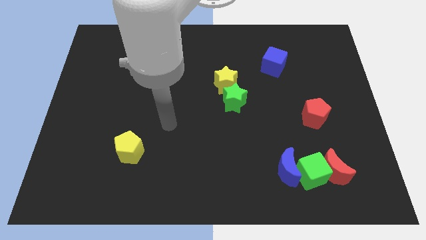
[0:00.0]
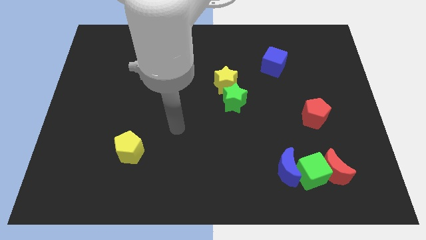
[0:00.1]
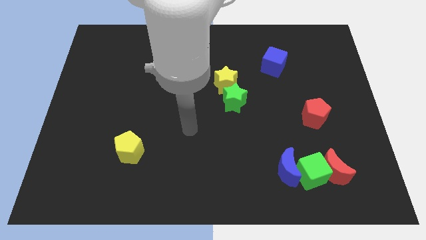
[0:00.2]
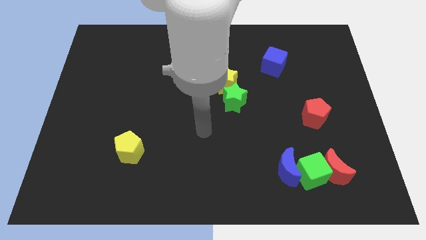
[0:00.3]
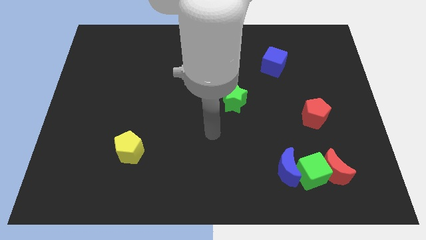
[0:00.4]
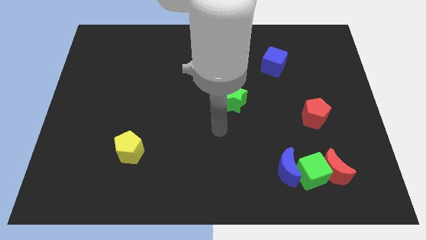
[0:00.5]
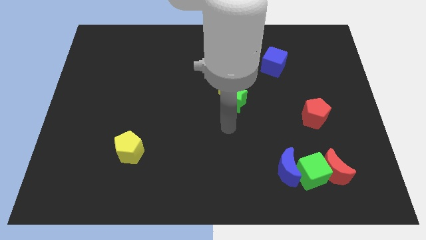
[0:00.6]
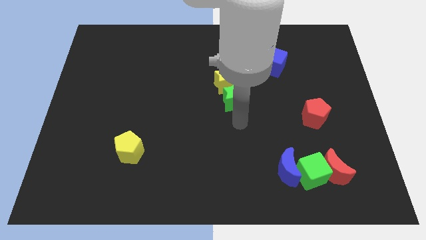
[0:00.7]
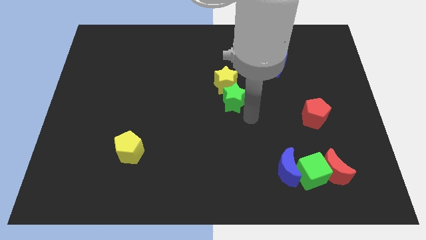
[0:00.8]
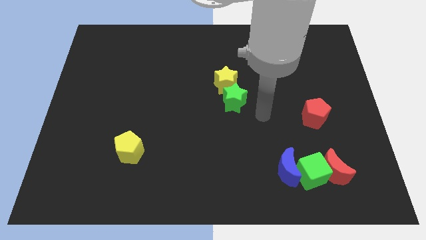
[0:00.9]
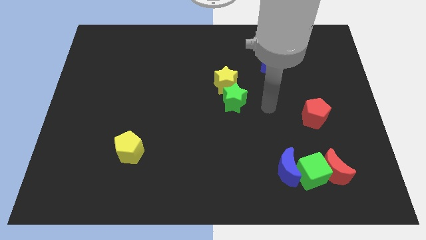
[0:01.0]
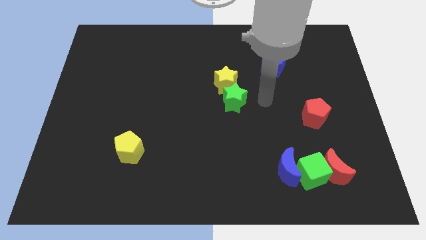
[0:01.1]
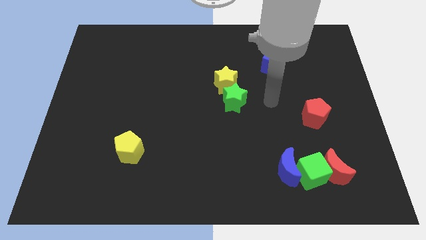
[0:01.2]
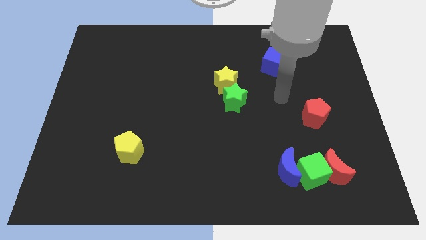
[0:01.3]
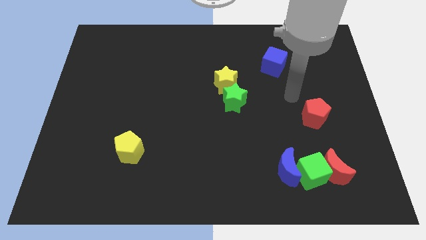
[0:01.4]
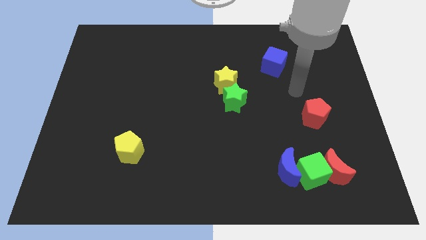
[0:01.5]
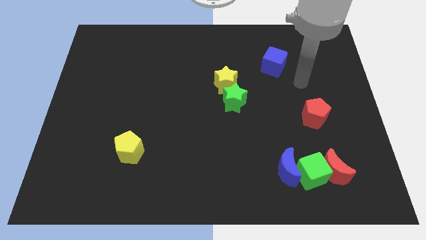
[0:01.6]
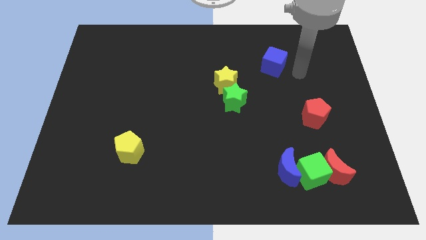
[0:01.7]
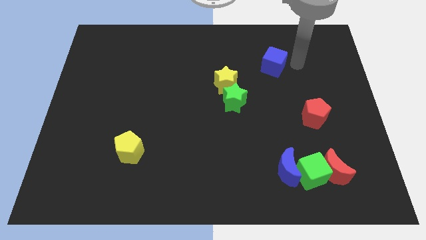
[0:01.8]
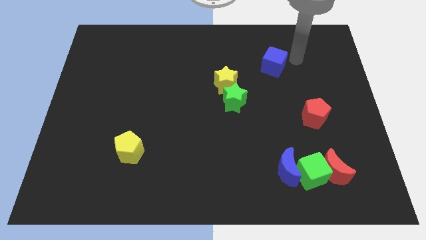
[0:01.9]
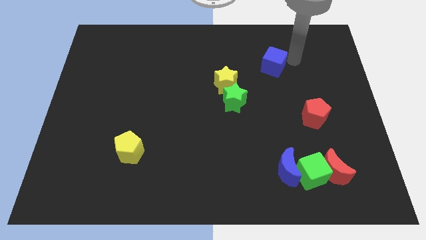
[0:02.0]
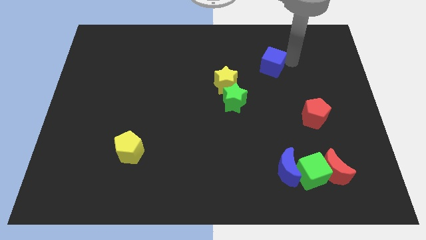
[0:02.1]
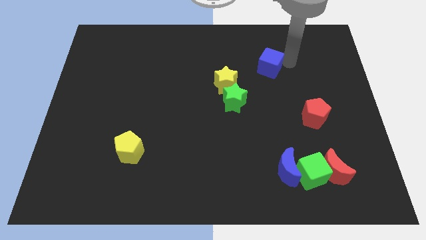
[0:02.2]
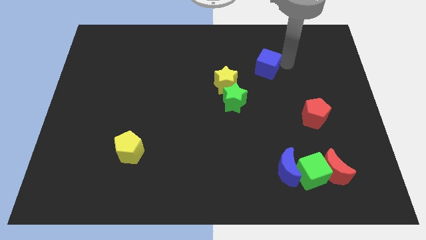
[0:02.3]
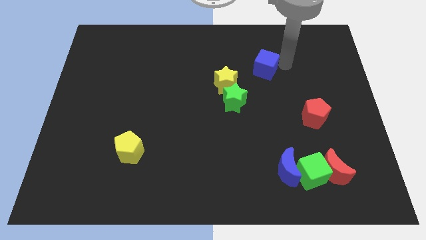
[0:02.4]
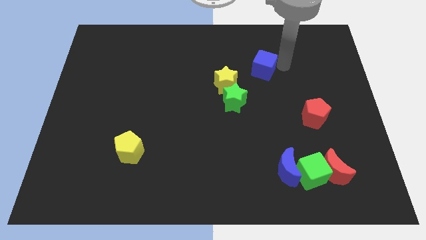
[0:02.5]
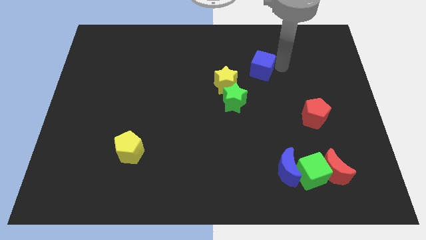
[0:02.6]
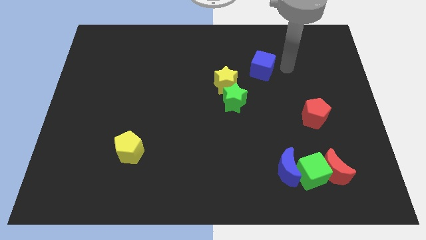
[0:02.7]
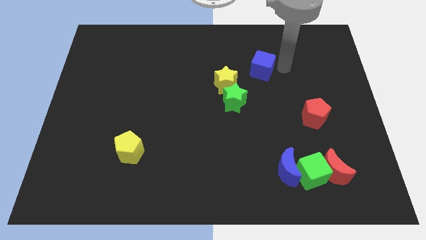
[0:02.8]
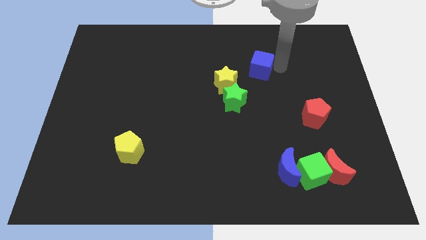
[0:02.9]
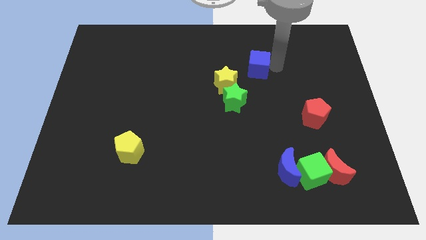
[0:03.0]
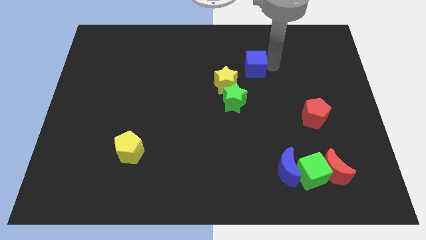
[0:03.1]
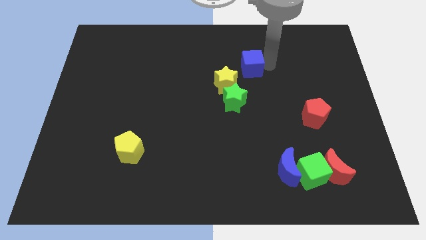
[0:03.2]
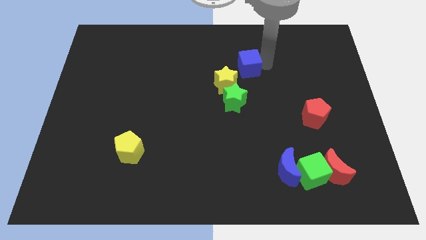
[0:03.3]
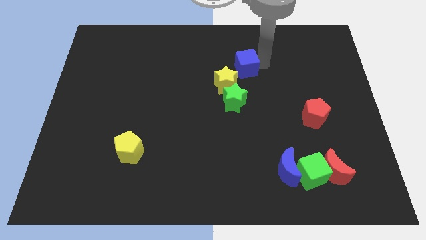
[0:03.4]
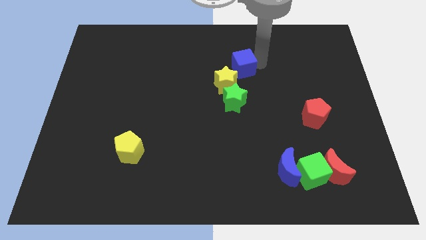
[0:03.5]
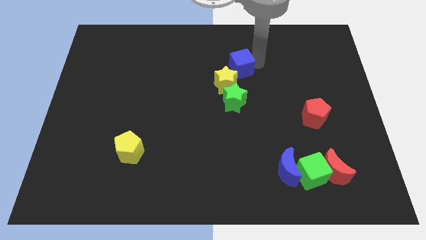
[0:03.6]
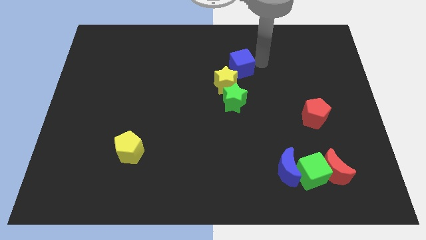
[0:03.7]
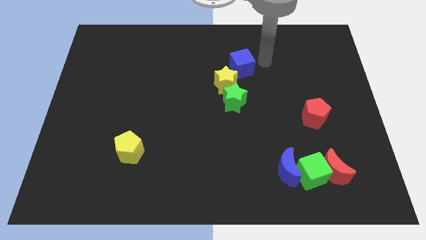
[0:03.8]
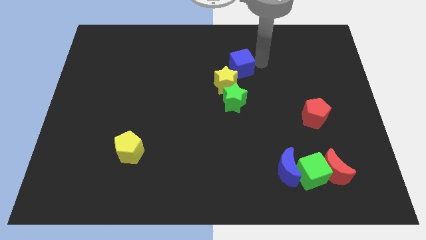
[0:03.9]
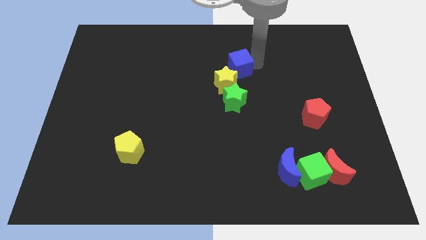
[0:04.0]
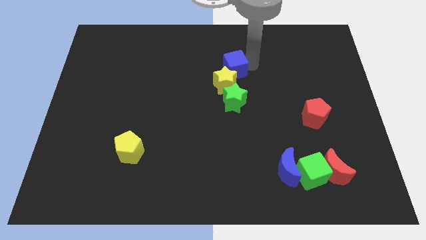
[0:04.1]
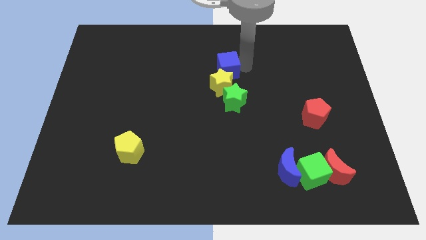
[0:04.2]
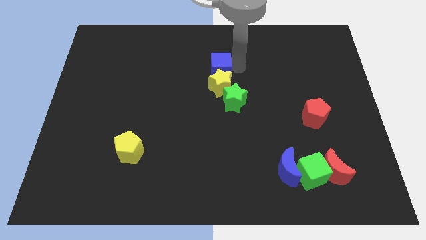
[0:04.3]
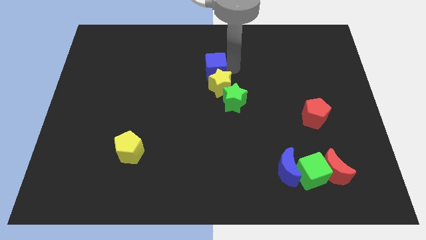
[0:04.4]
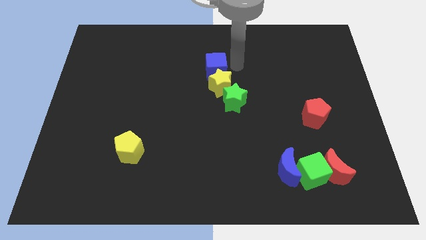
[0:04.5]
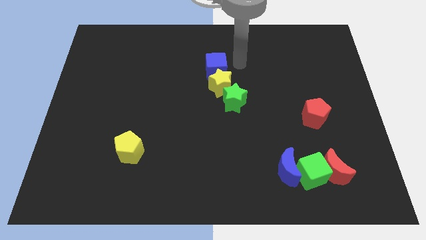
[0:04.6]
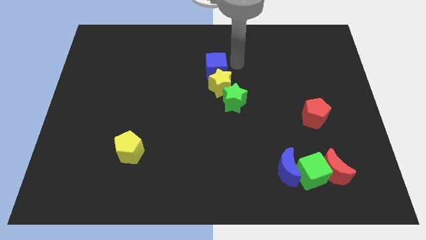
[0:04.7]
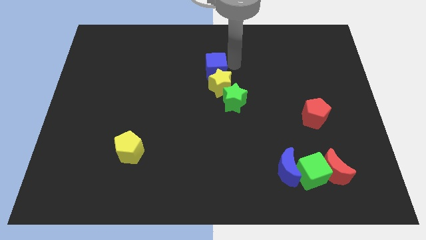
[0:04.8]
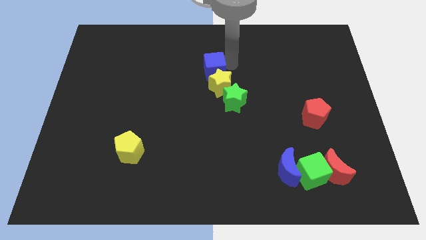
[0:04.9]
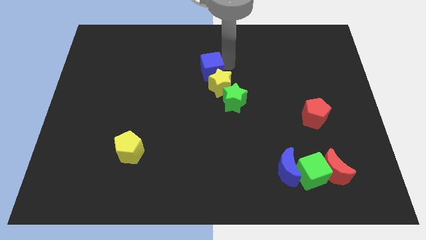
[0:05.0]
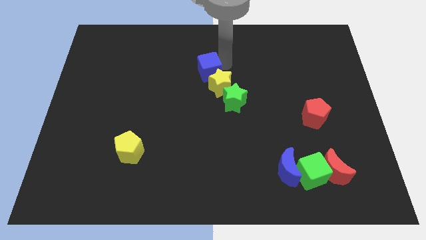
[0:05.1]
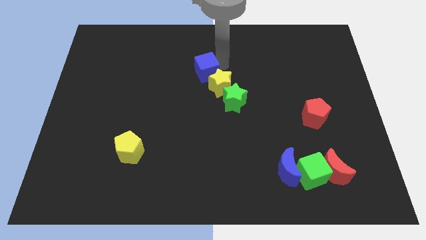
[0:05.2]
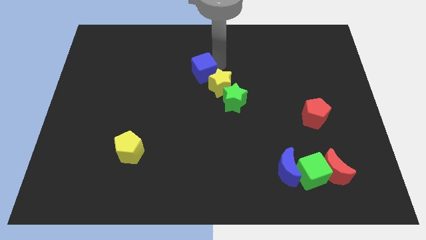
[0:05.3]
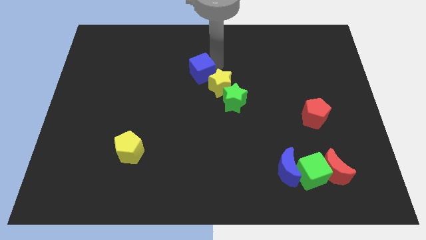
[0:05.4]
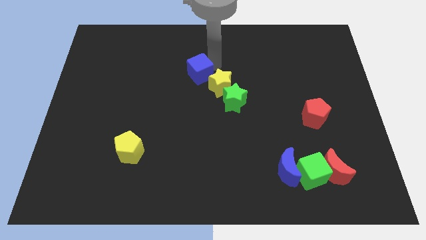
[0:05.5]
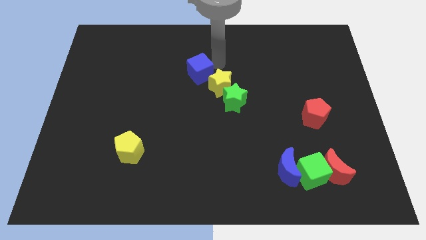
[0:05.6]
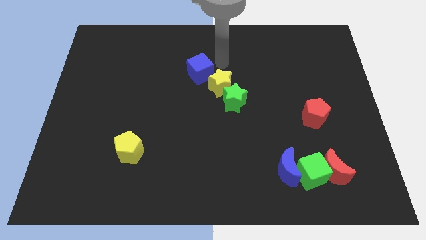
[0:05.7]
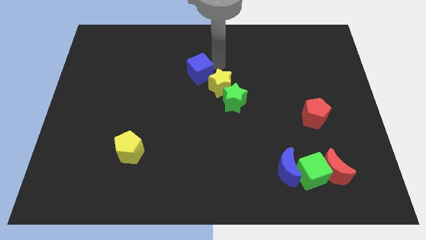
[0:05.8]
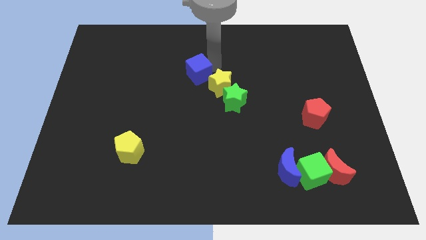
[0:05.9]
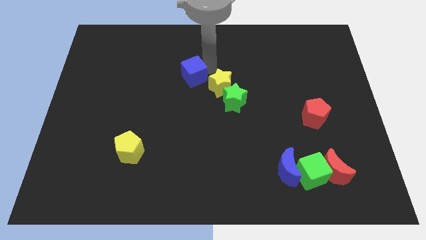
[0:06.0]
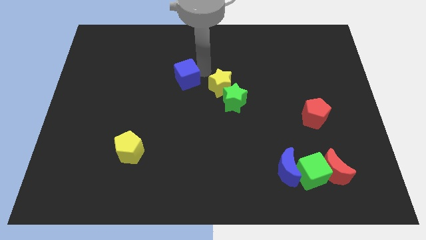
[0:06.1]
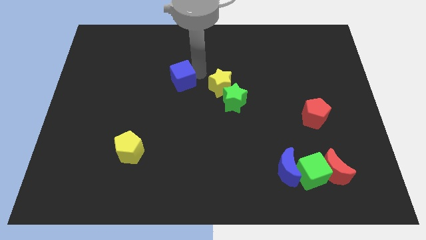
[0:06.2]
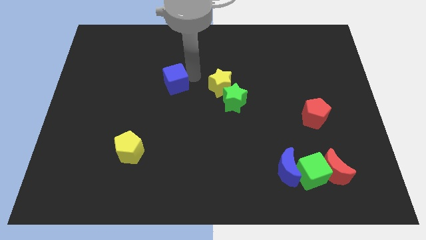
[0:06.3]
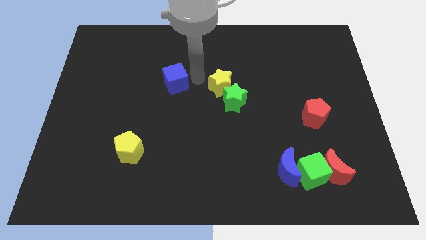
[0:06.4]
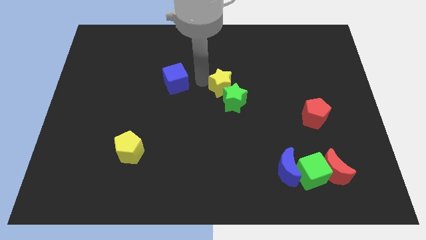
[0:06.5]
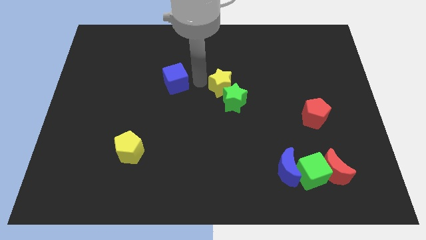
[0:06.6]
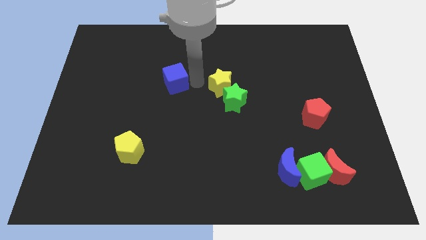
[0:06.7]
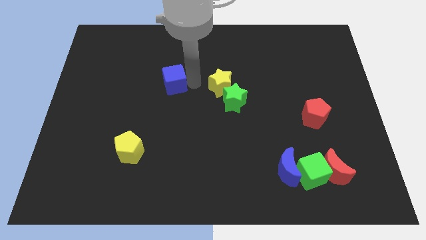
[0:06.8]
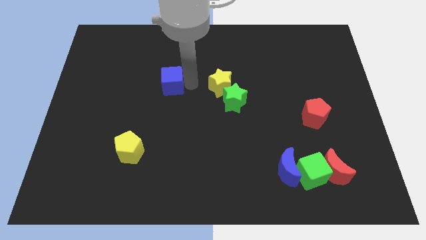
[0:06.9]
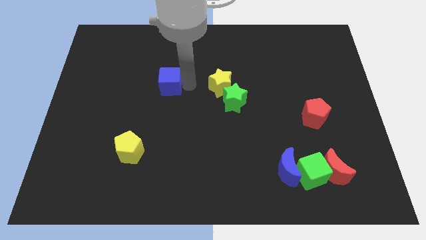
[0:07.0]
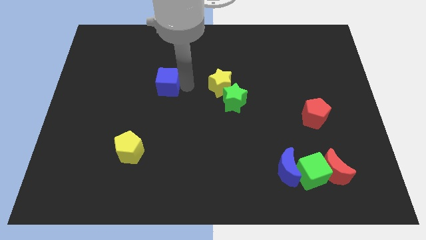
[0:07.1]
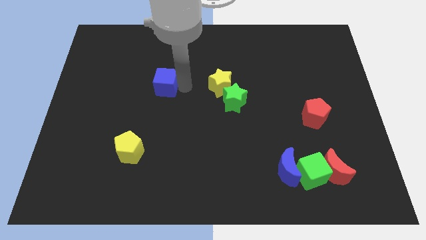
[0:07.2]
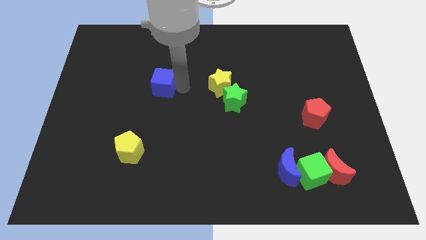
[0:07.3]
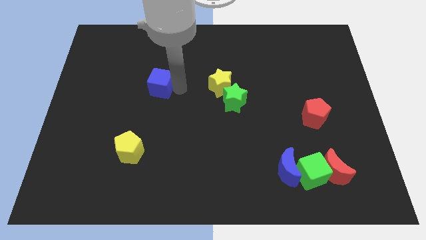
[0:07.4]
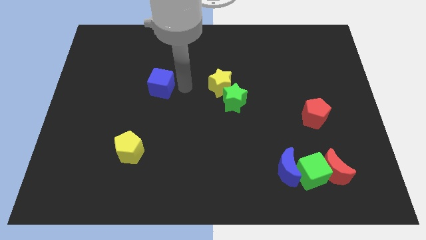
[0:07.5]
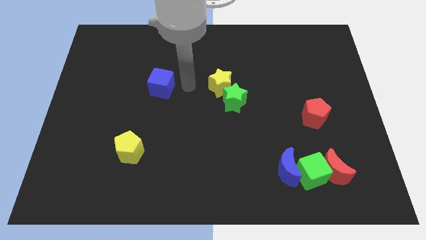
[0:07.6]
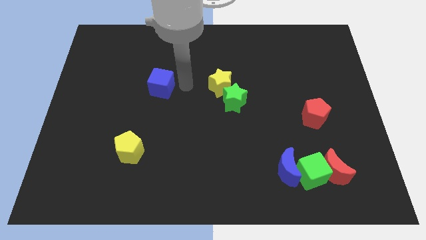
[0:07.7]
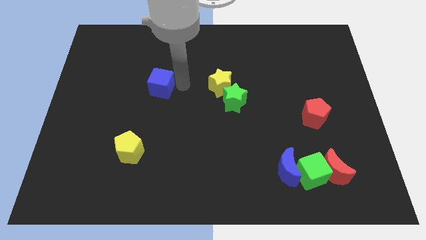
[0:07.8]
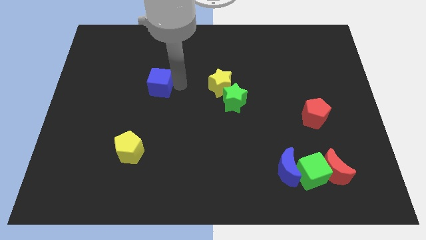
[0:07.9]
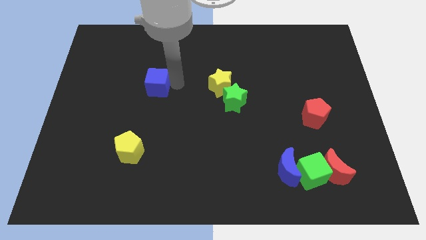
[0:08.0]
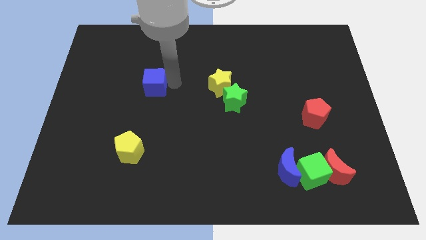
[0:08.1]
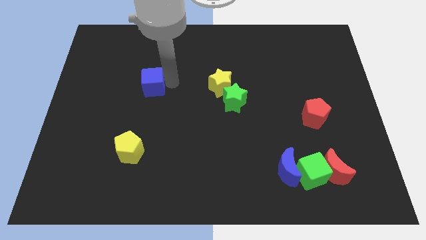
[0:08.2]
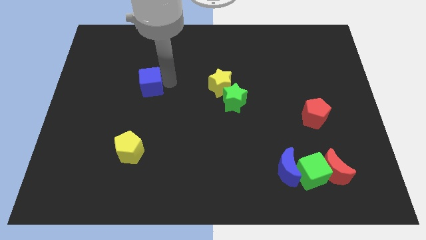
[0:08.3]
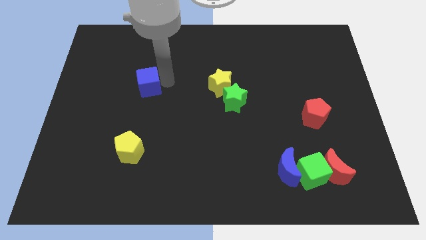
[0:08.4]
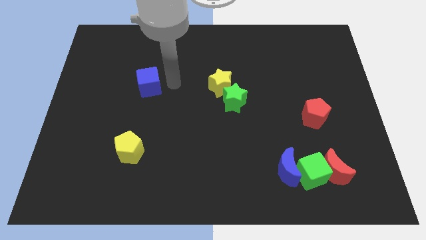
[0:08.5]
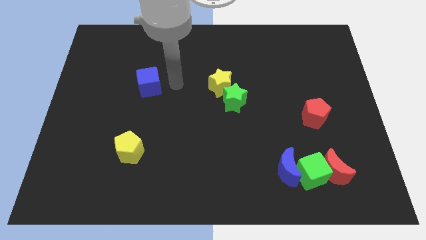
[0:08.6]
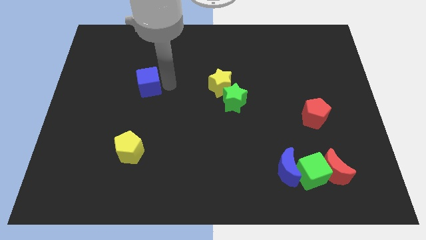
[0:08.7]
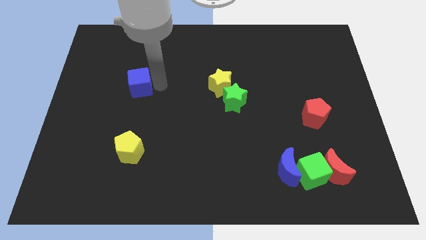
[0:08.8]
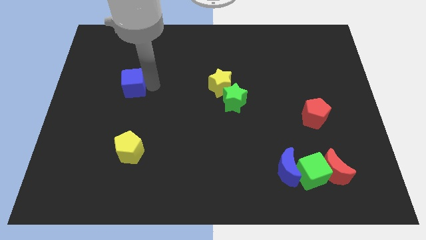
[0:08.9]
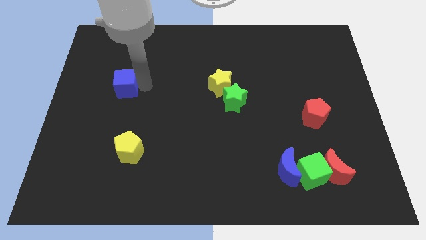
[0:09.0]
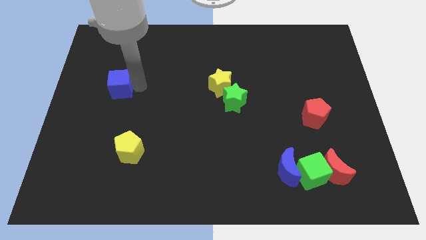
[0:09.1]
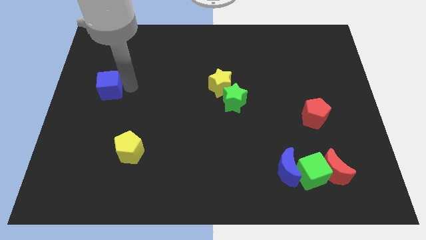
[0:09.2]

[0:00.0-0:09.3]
move the blue cube to the center left
